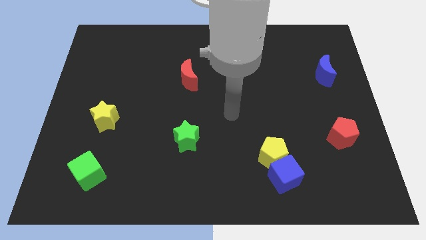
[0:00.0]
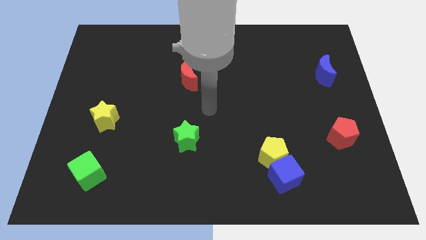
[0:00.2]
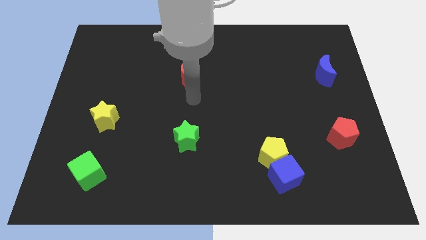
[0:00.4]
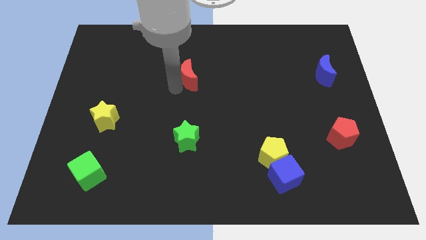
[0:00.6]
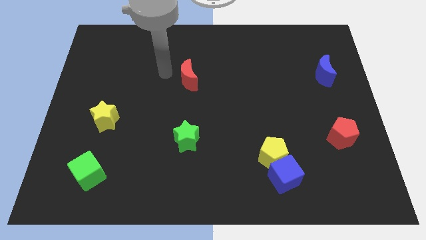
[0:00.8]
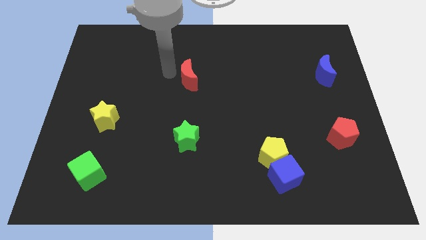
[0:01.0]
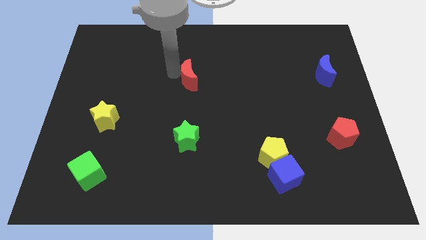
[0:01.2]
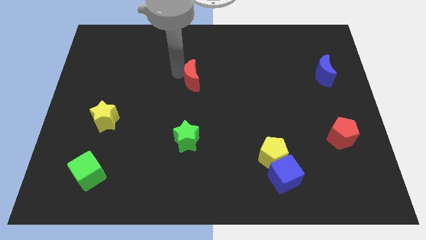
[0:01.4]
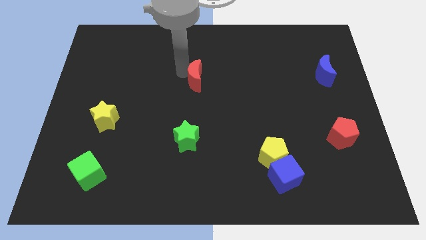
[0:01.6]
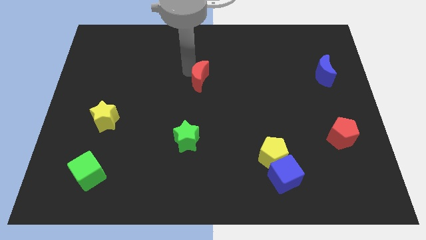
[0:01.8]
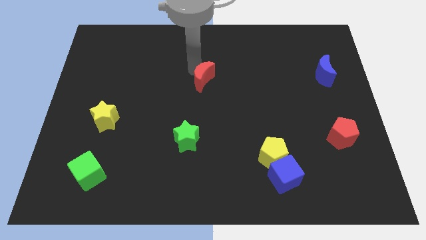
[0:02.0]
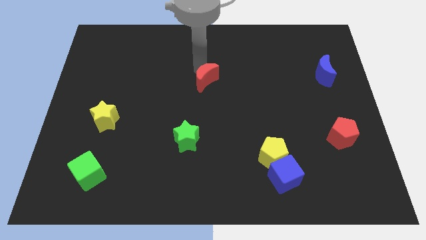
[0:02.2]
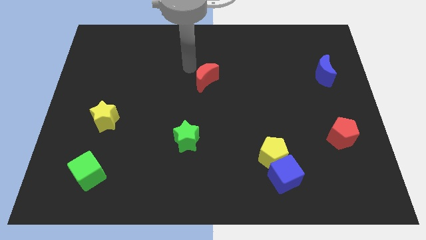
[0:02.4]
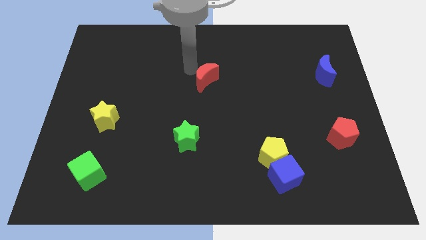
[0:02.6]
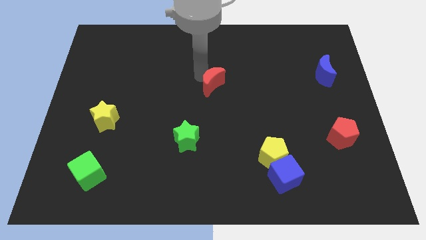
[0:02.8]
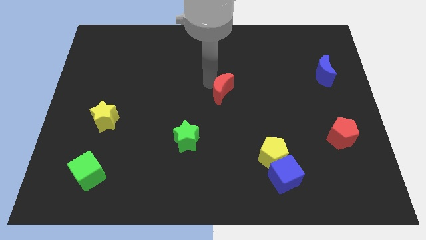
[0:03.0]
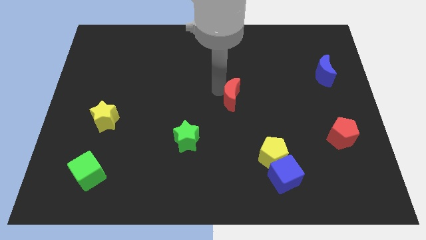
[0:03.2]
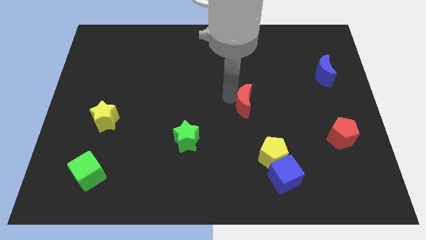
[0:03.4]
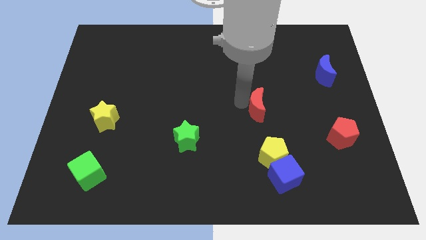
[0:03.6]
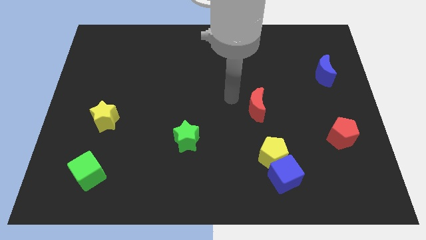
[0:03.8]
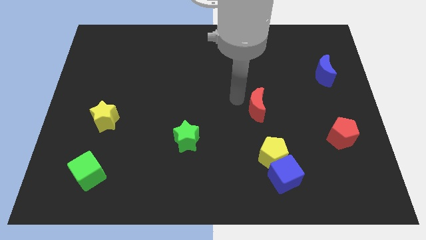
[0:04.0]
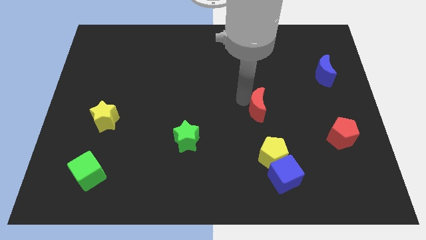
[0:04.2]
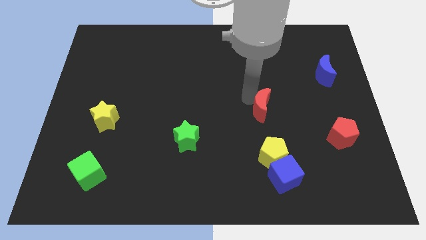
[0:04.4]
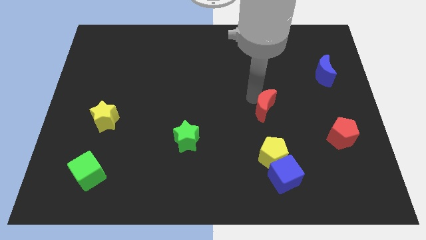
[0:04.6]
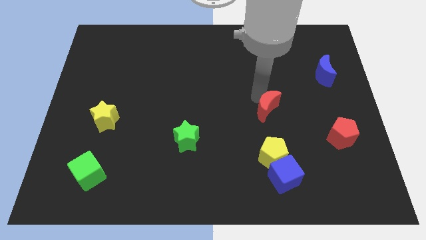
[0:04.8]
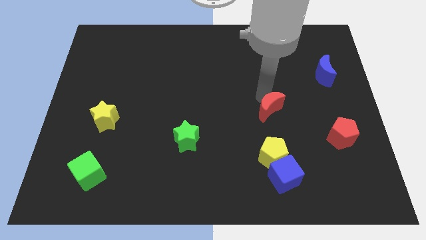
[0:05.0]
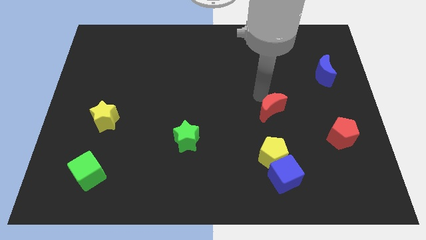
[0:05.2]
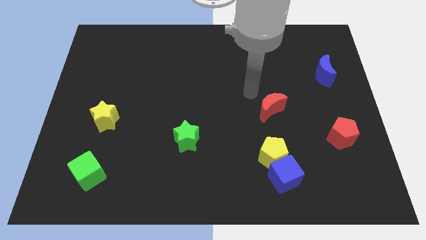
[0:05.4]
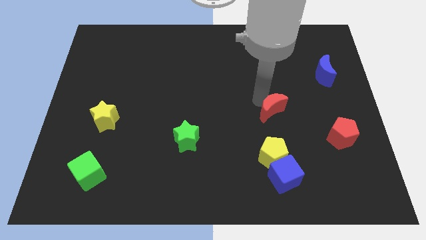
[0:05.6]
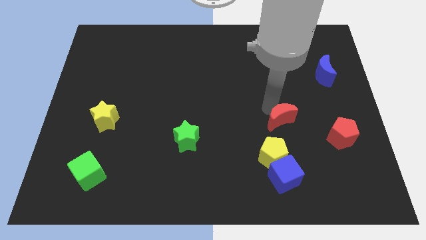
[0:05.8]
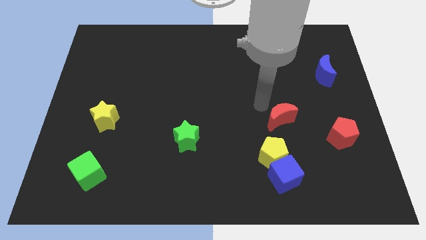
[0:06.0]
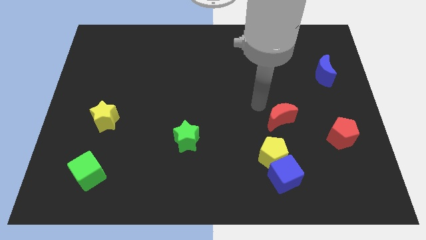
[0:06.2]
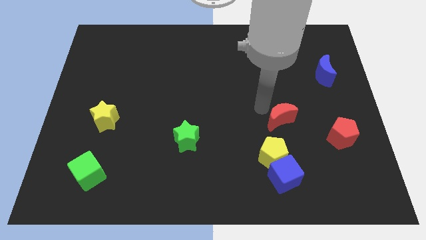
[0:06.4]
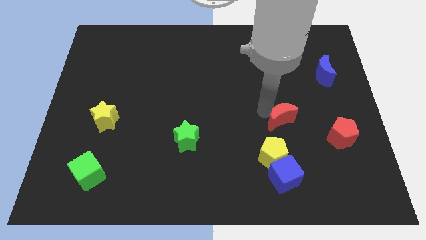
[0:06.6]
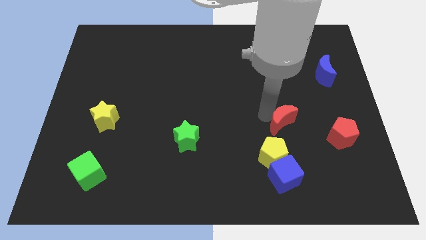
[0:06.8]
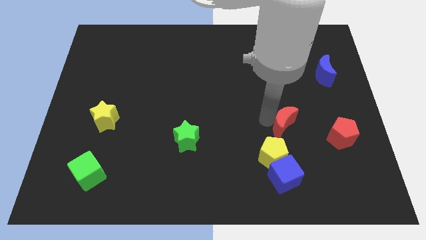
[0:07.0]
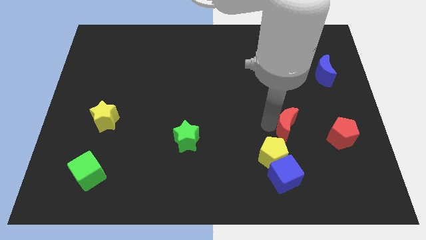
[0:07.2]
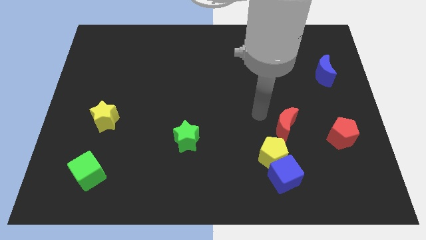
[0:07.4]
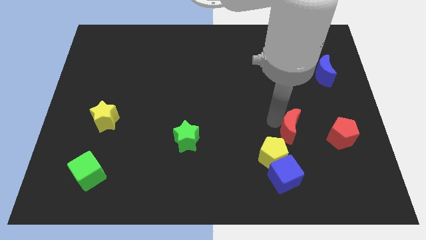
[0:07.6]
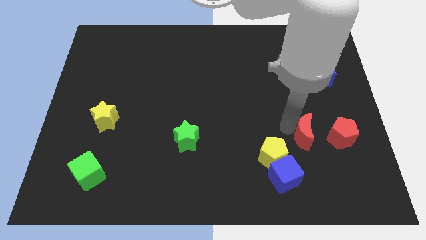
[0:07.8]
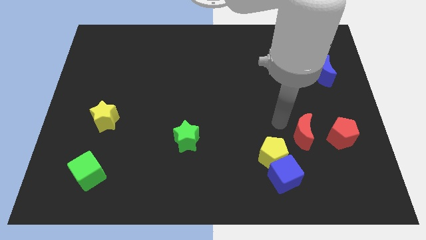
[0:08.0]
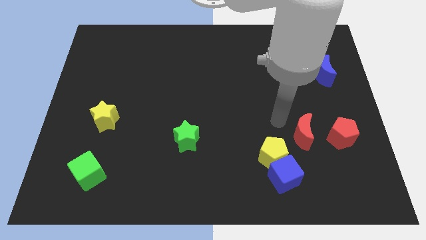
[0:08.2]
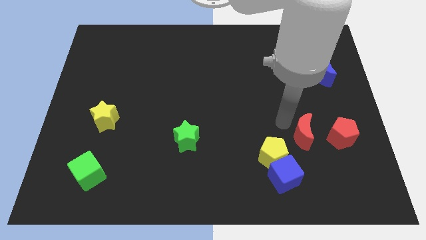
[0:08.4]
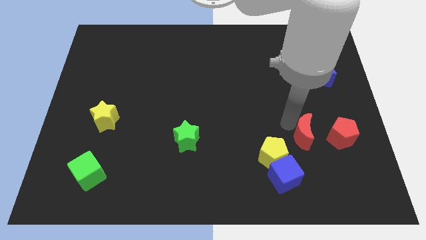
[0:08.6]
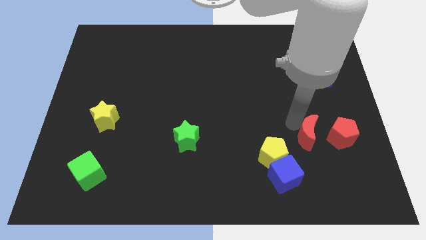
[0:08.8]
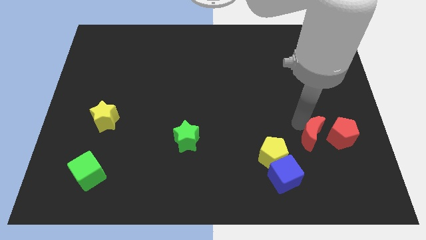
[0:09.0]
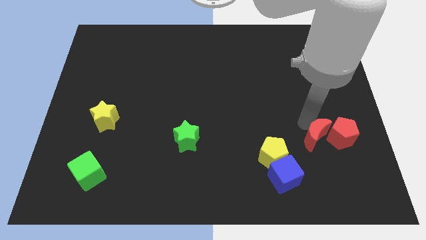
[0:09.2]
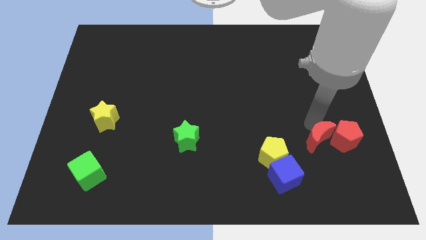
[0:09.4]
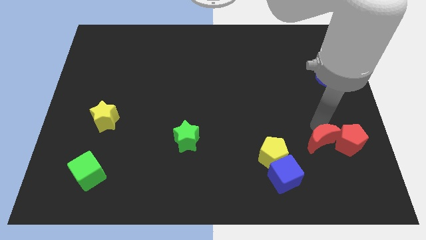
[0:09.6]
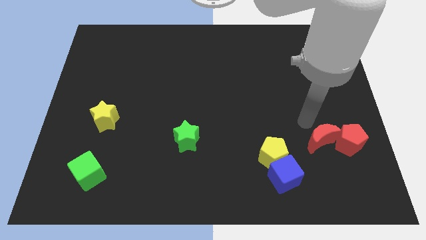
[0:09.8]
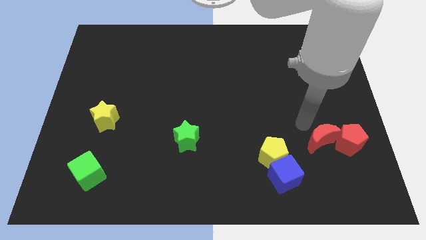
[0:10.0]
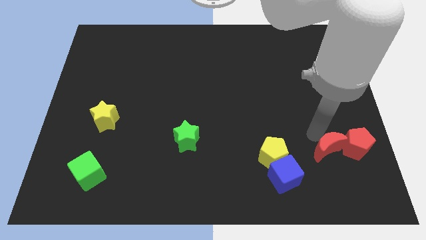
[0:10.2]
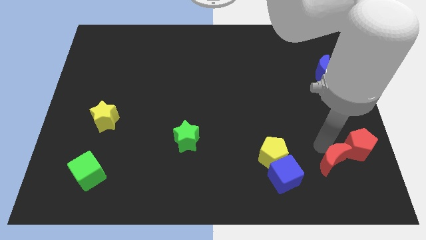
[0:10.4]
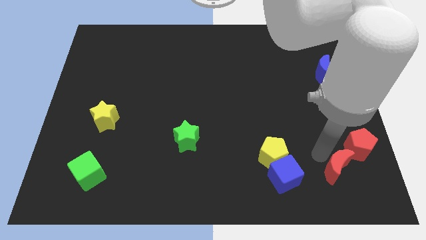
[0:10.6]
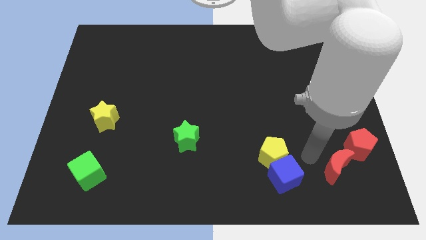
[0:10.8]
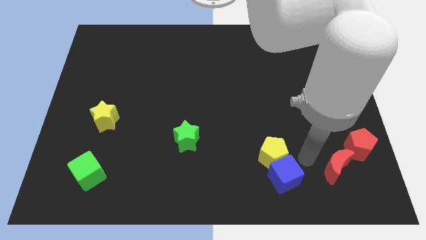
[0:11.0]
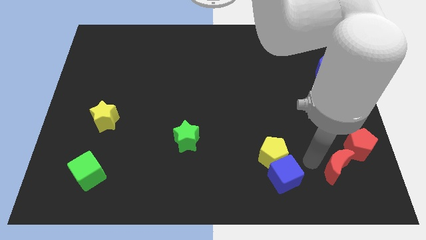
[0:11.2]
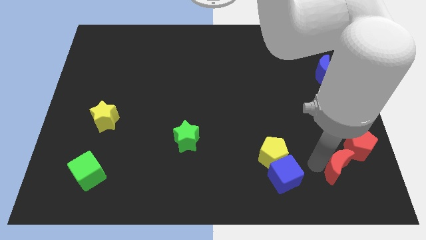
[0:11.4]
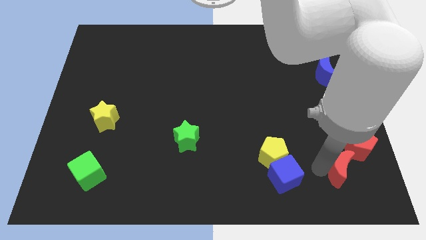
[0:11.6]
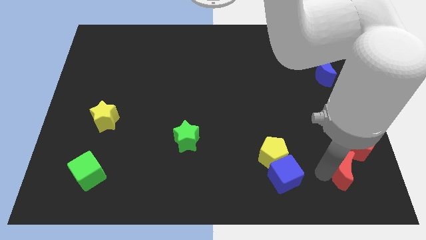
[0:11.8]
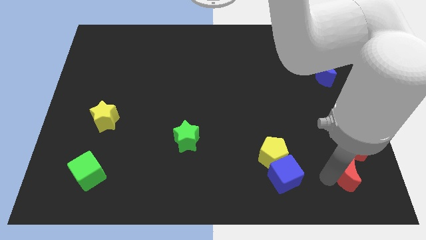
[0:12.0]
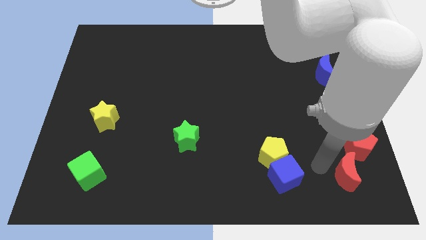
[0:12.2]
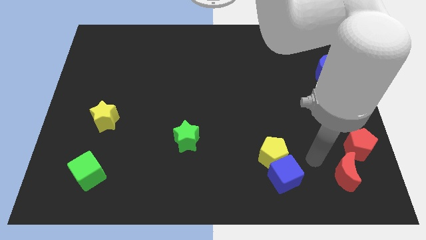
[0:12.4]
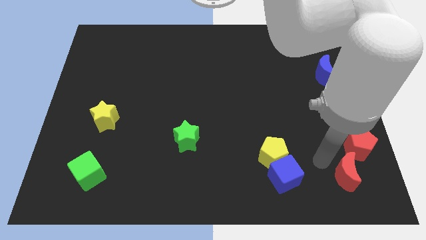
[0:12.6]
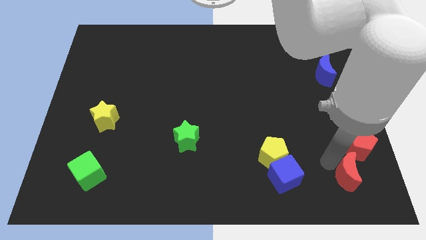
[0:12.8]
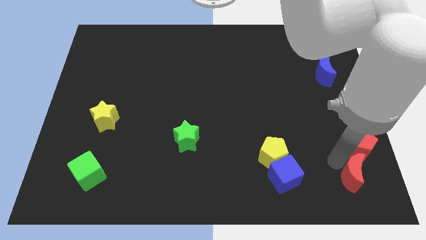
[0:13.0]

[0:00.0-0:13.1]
move the red moon to the bottom right of the board
